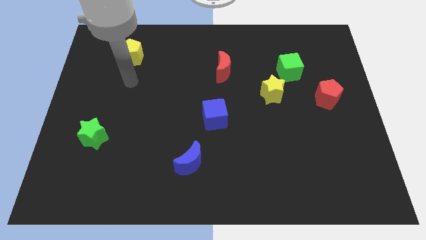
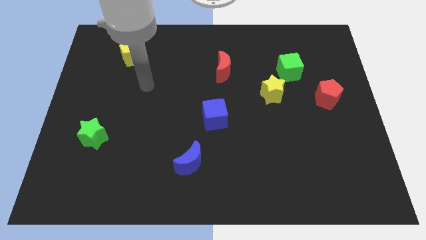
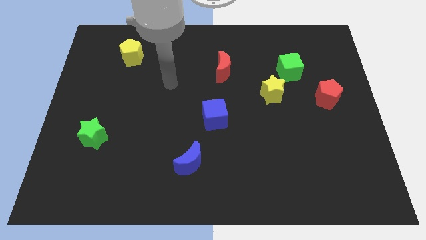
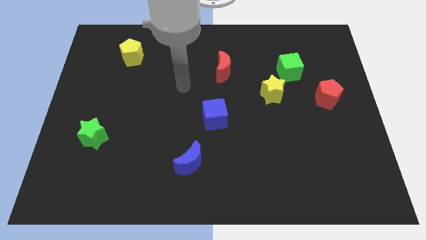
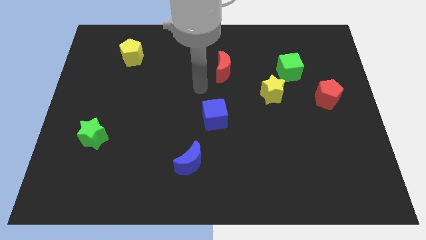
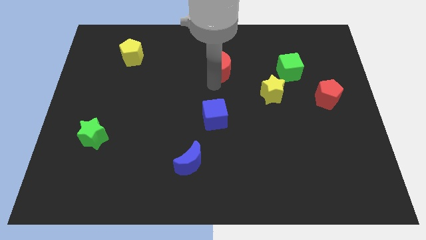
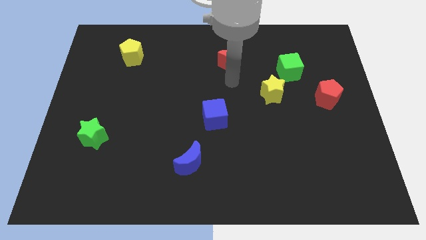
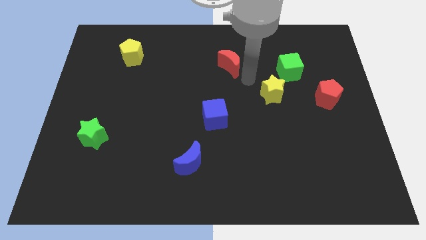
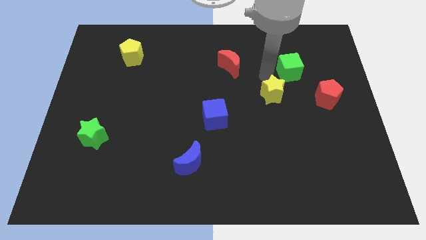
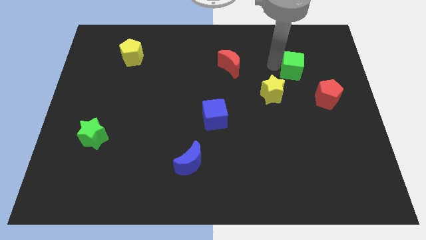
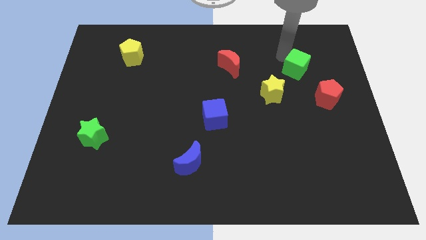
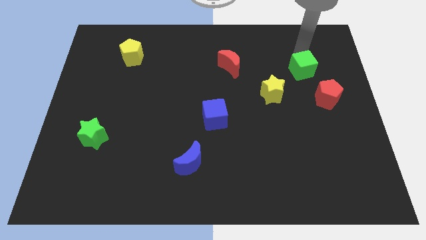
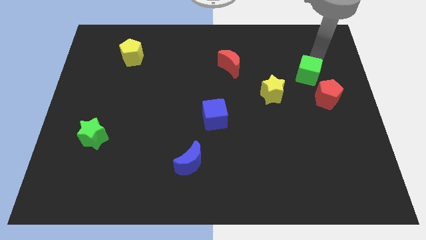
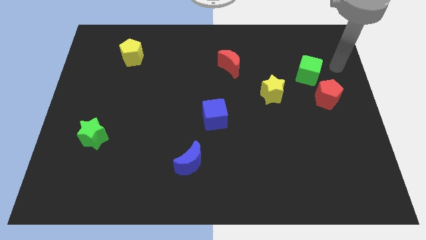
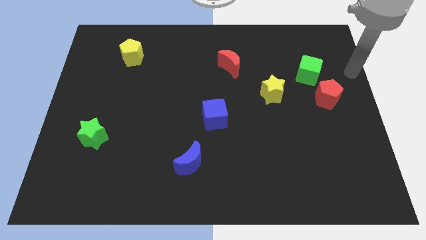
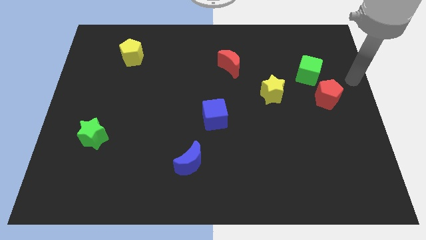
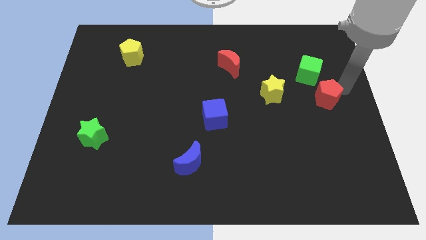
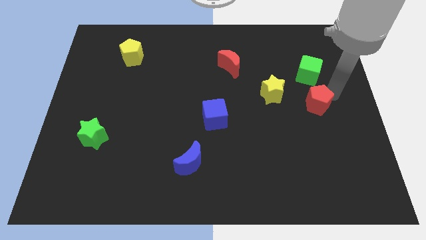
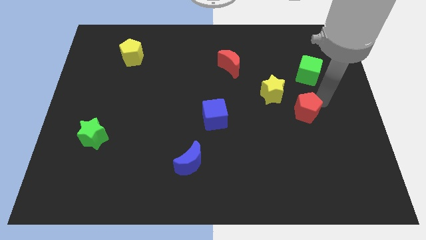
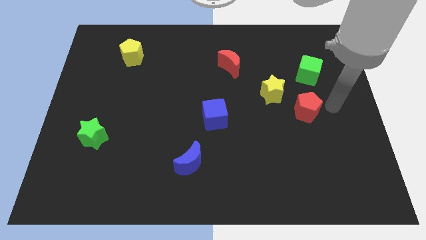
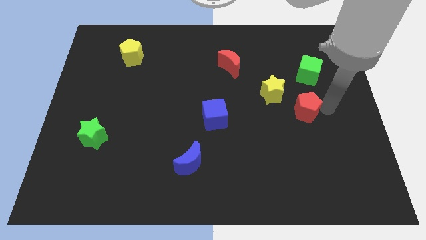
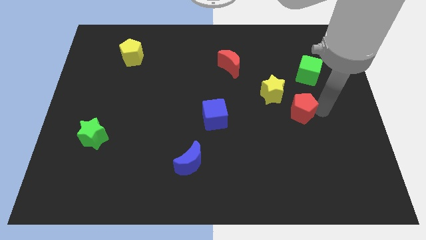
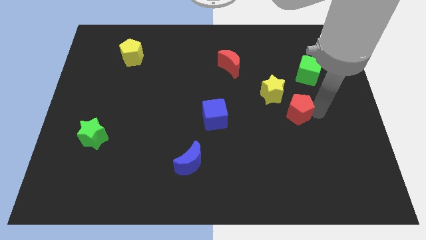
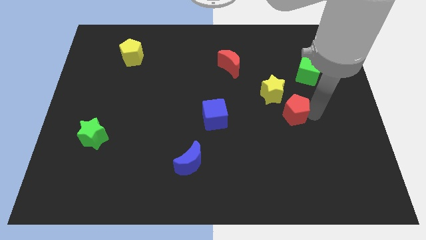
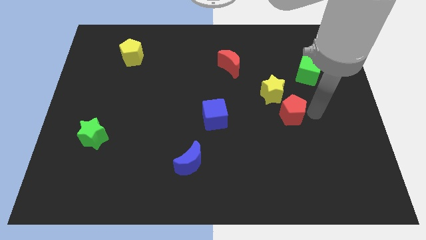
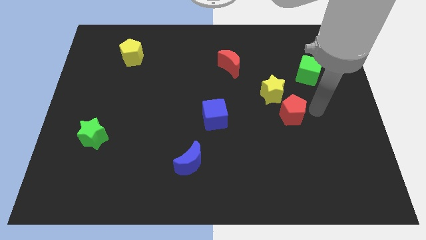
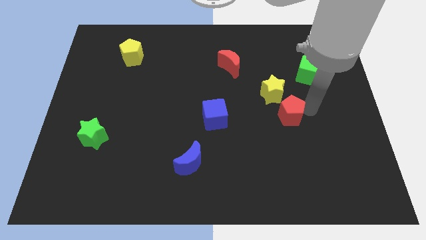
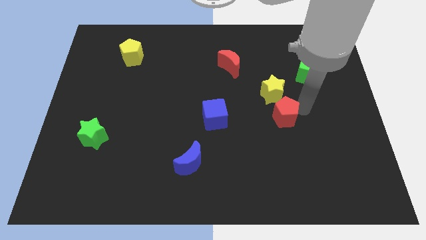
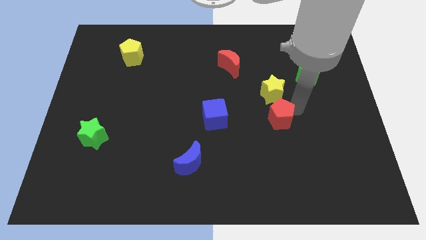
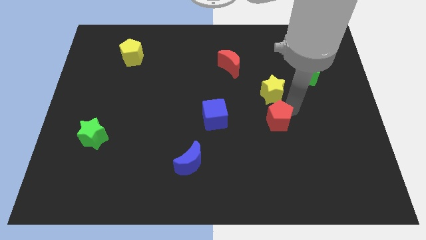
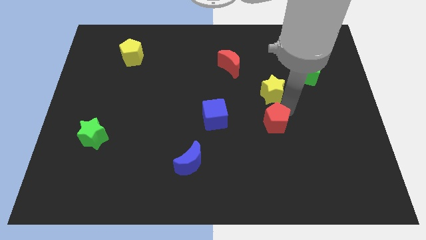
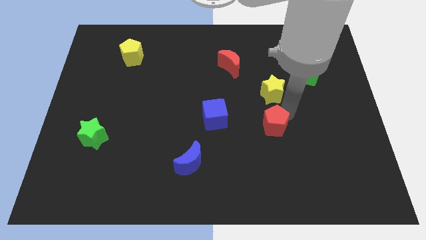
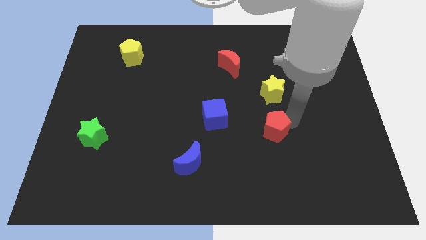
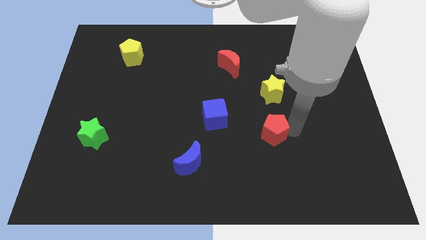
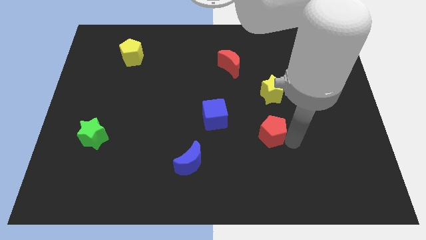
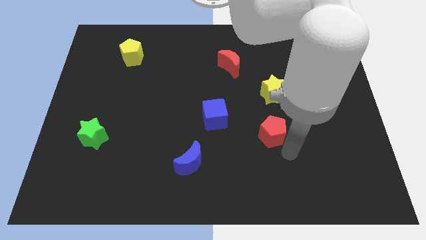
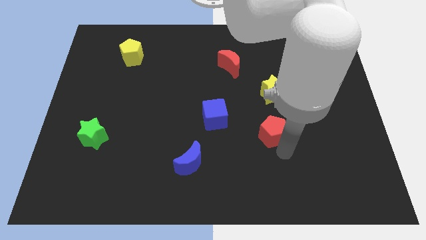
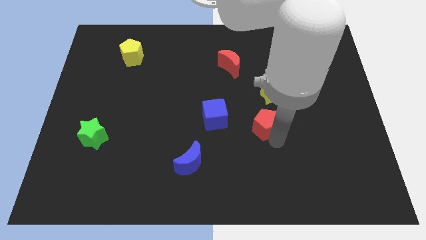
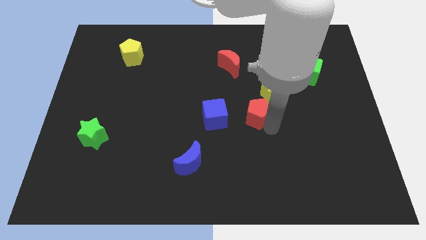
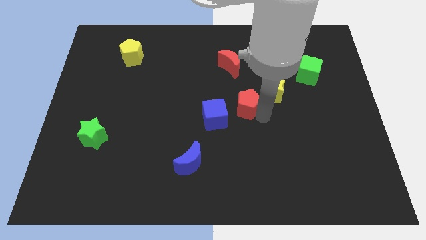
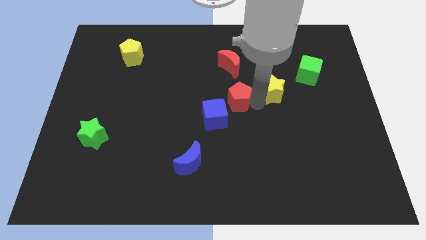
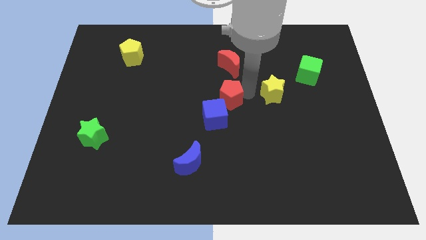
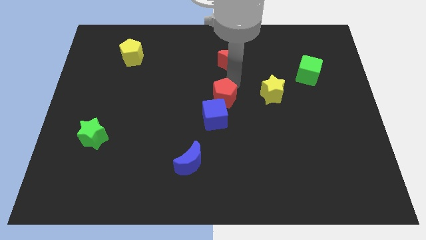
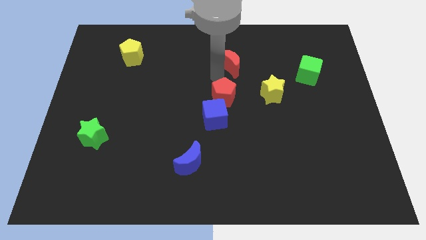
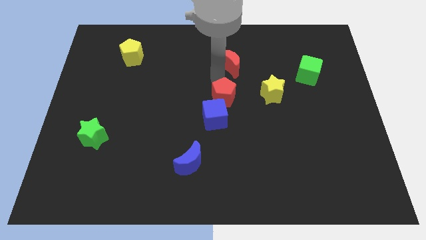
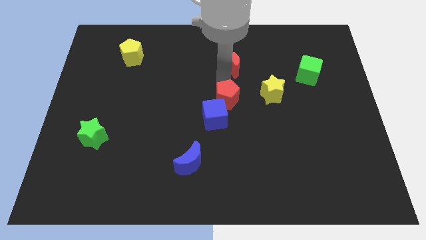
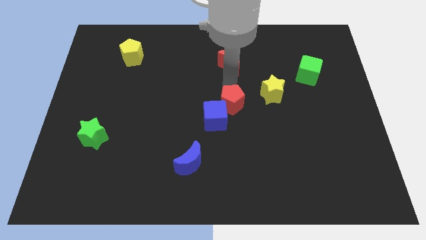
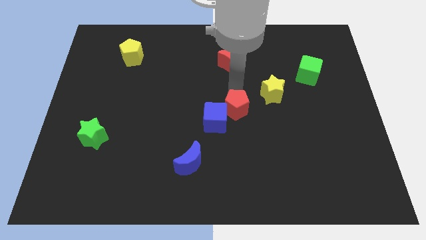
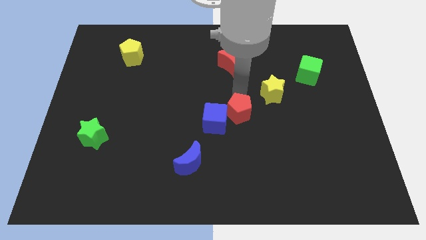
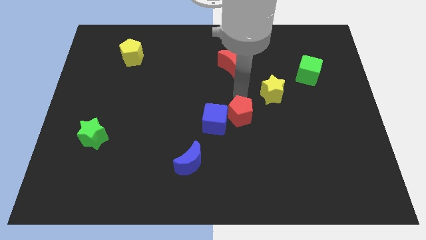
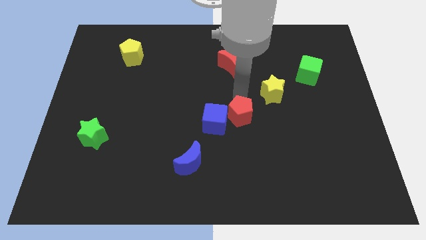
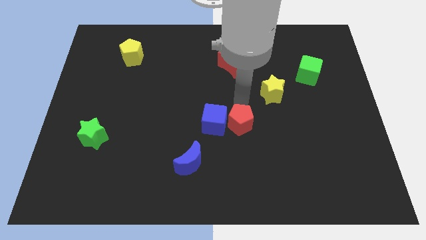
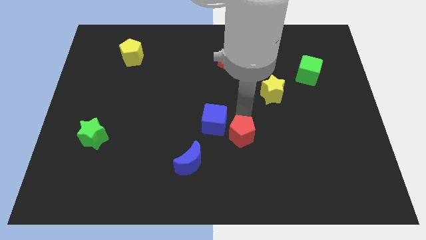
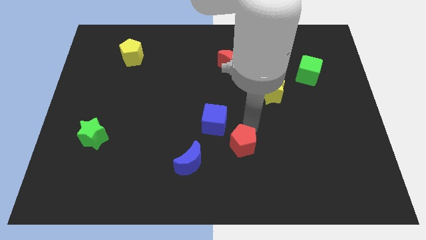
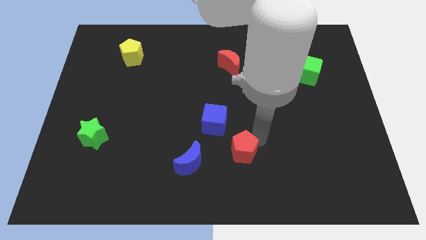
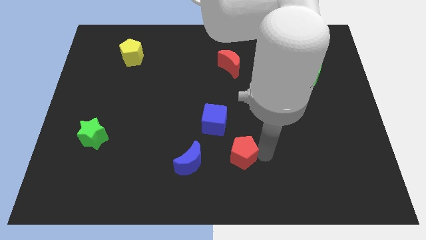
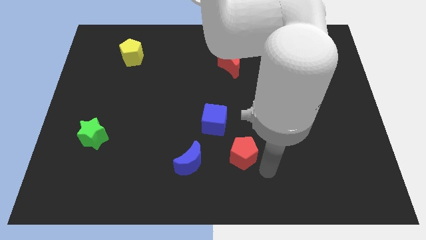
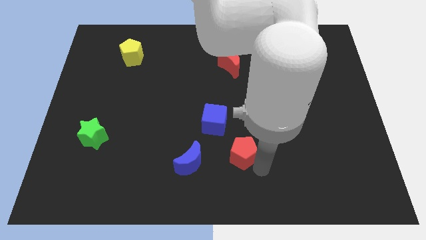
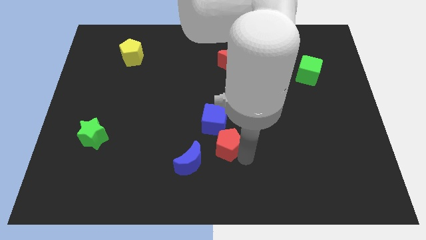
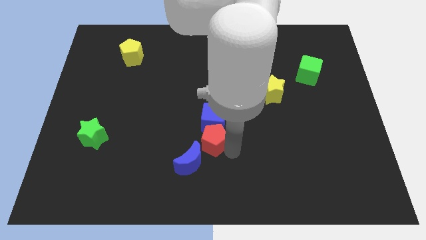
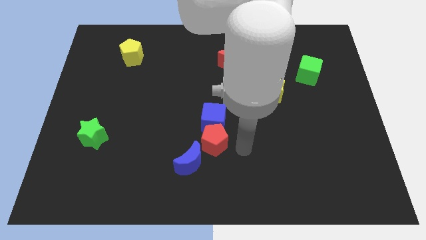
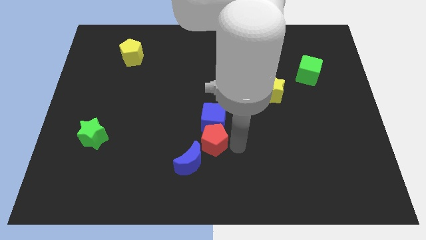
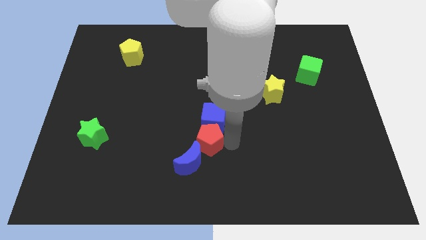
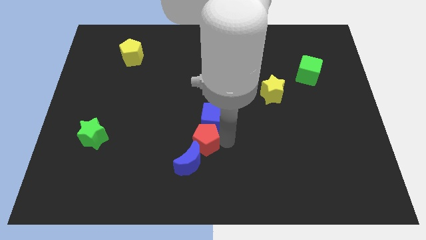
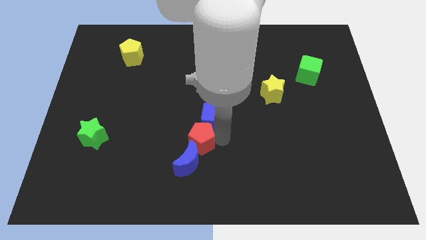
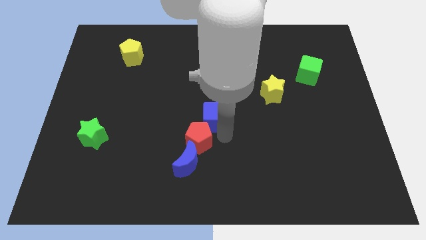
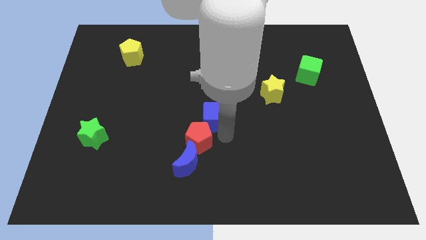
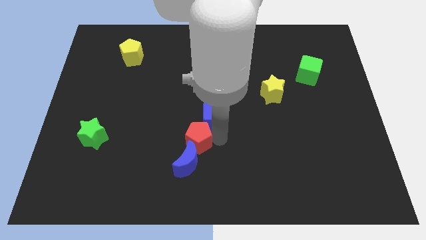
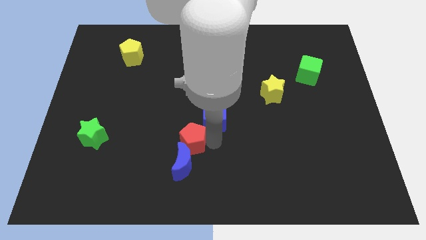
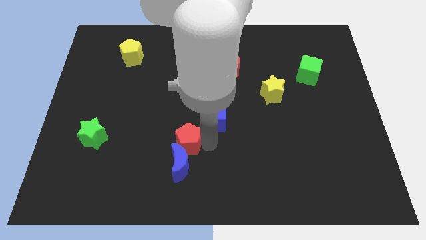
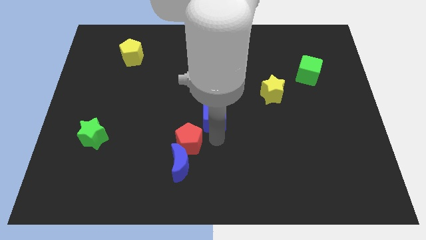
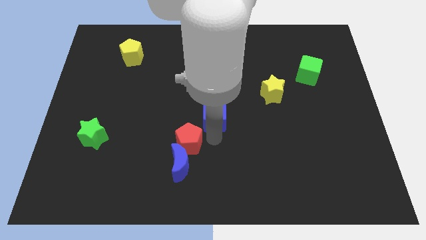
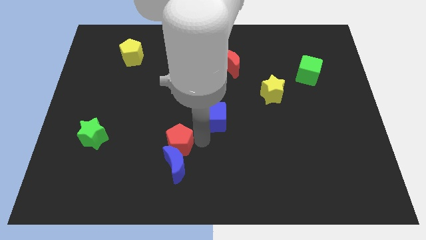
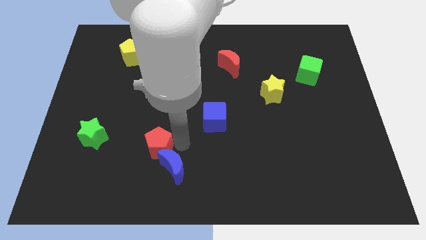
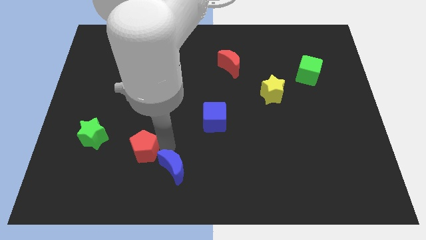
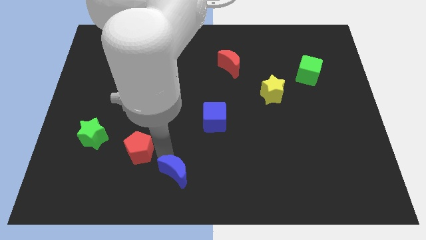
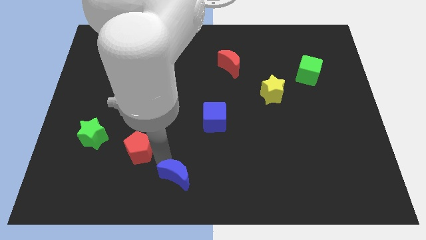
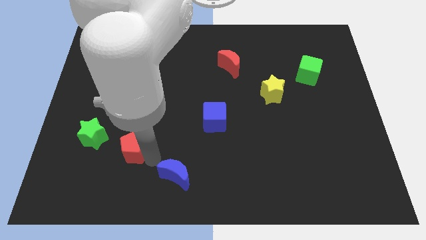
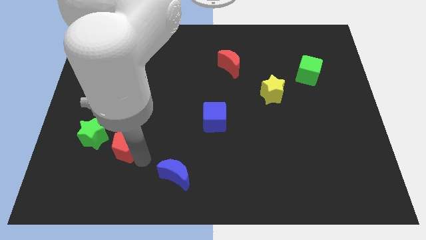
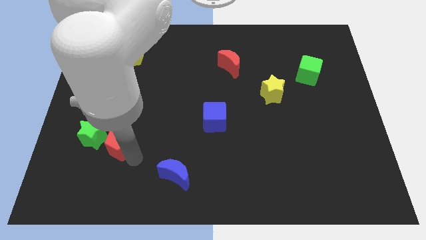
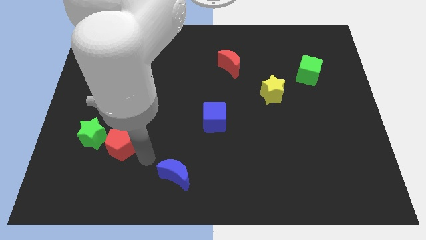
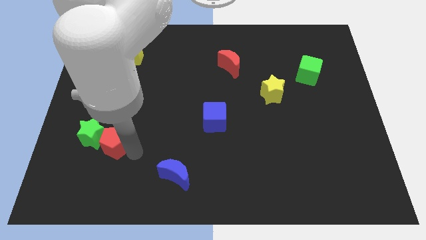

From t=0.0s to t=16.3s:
push the red pentagon to the green star
